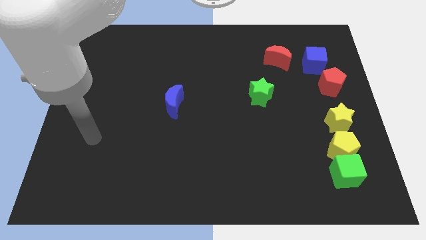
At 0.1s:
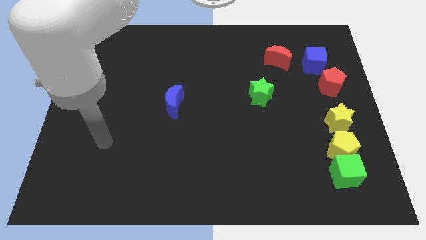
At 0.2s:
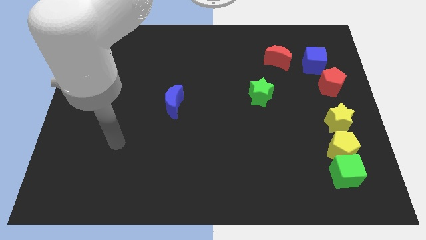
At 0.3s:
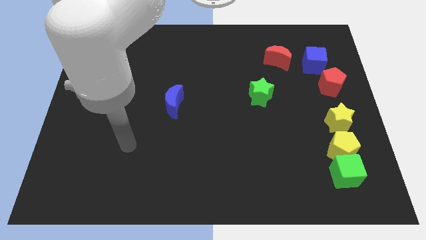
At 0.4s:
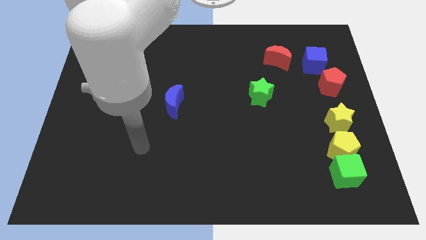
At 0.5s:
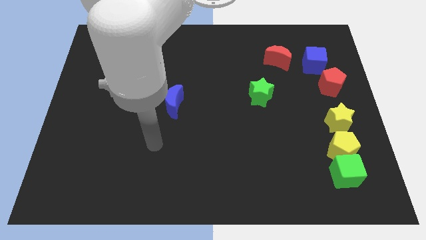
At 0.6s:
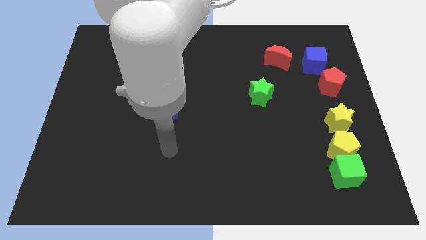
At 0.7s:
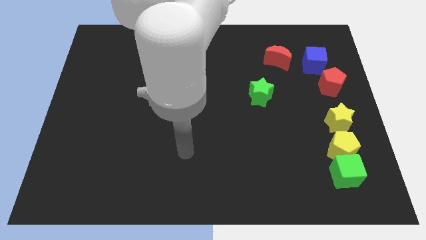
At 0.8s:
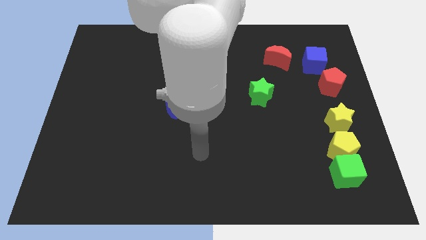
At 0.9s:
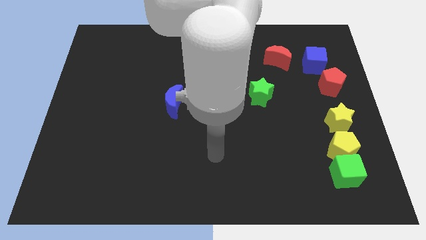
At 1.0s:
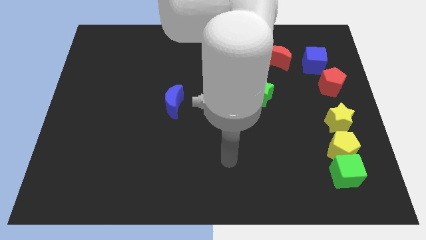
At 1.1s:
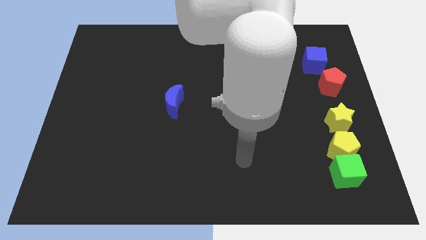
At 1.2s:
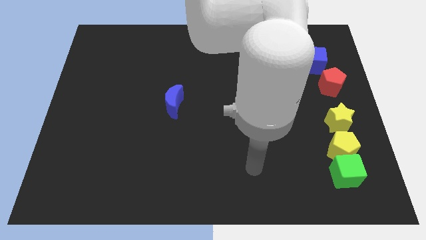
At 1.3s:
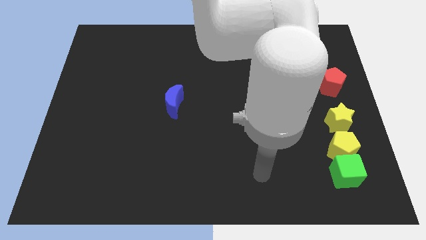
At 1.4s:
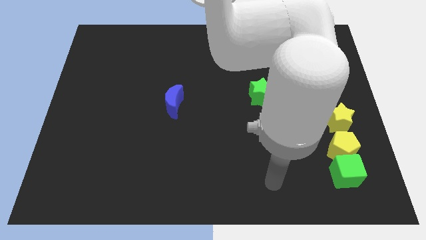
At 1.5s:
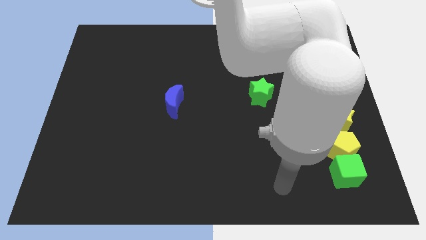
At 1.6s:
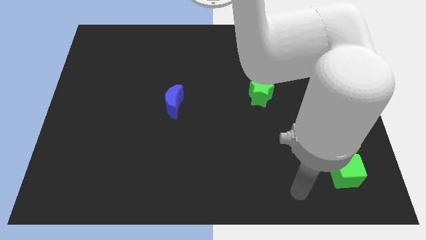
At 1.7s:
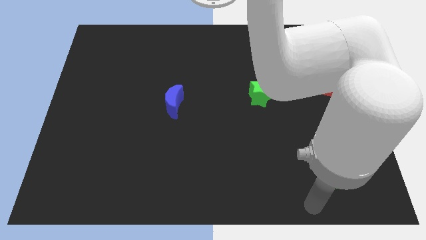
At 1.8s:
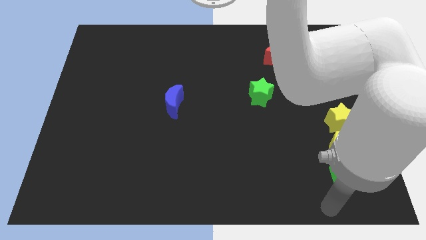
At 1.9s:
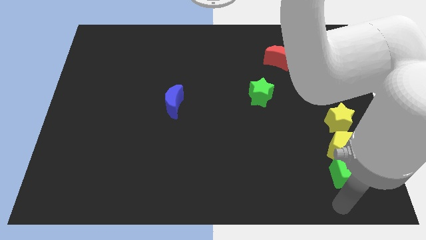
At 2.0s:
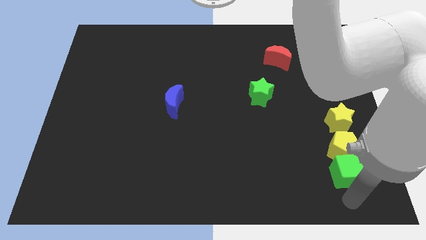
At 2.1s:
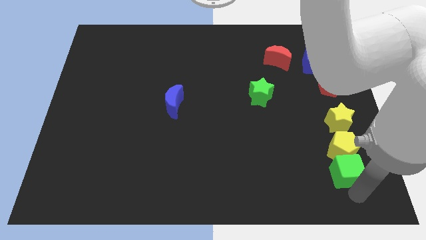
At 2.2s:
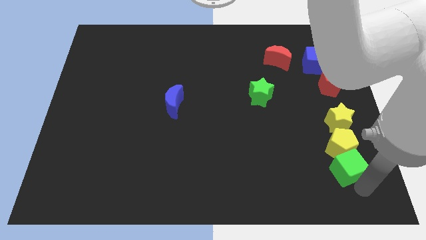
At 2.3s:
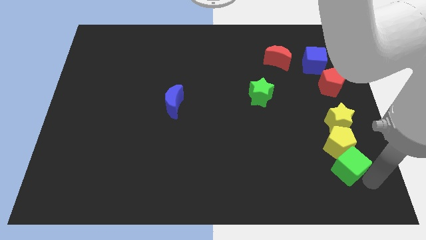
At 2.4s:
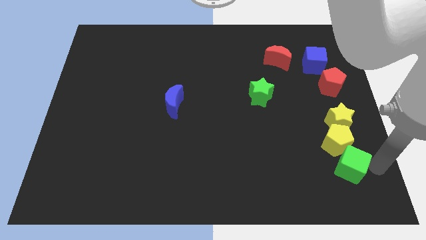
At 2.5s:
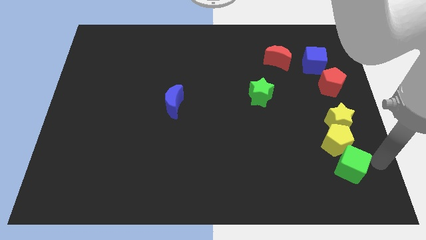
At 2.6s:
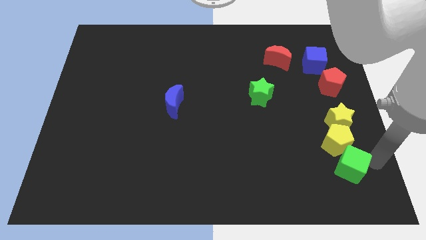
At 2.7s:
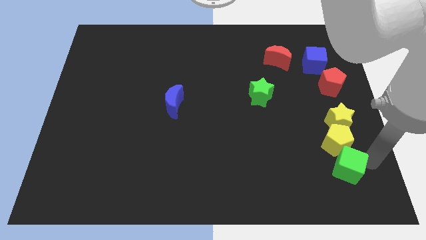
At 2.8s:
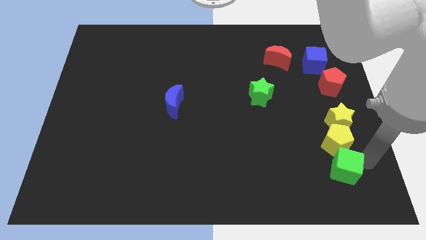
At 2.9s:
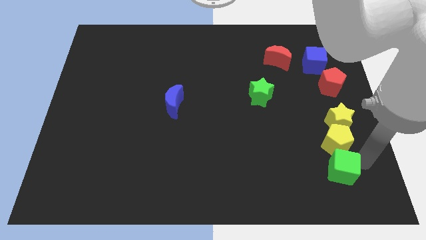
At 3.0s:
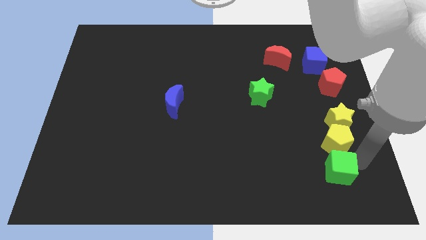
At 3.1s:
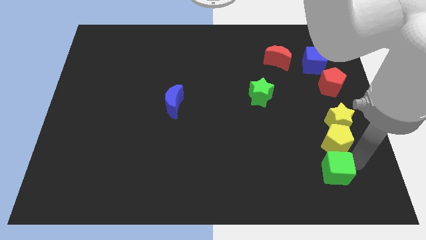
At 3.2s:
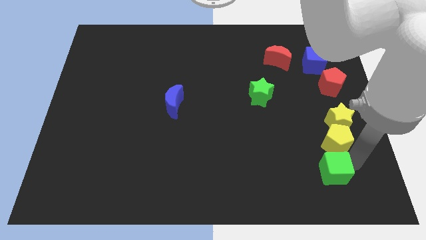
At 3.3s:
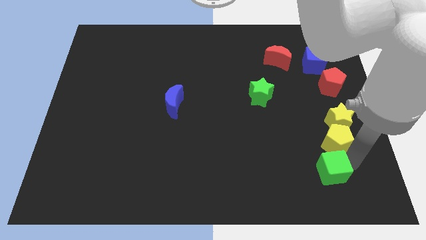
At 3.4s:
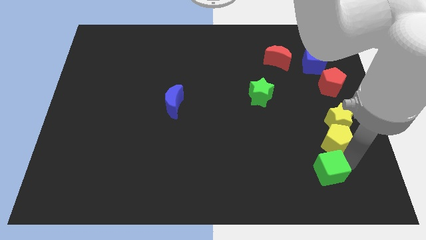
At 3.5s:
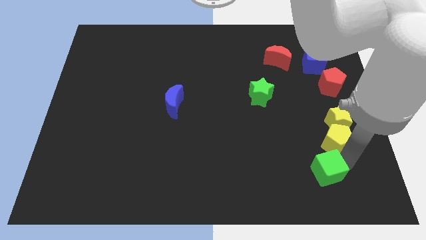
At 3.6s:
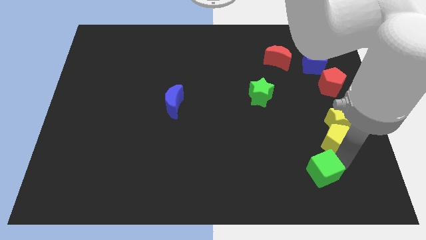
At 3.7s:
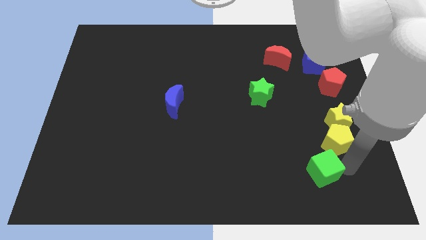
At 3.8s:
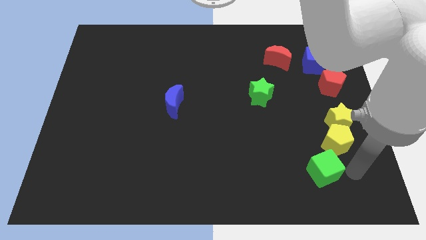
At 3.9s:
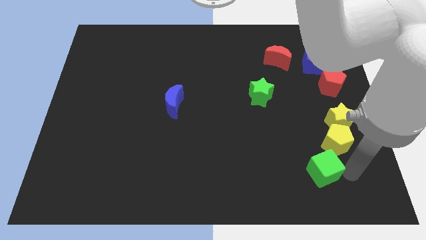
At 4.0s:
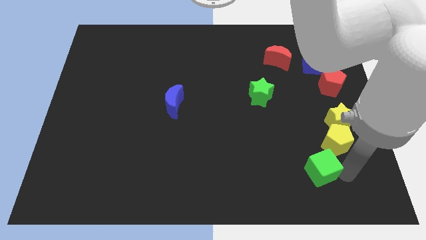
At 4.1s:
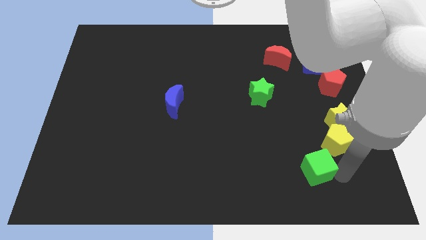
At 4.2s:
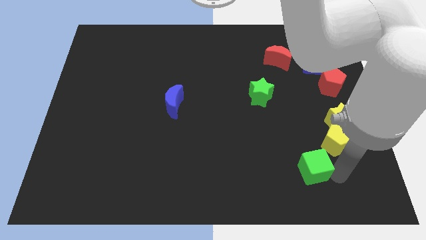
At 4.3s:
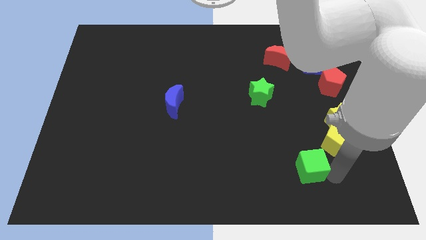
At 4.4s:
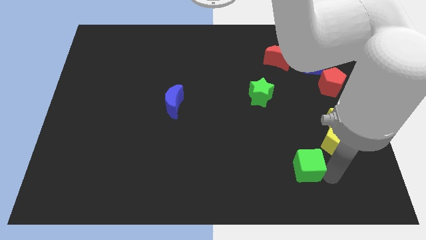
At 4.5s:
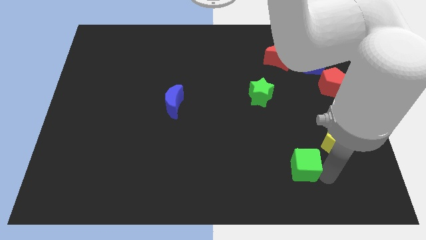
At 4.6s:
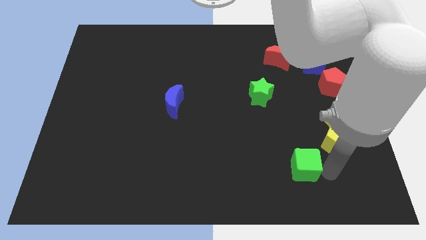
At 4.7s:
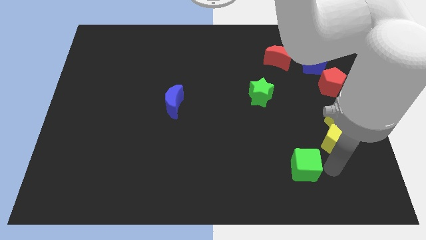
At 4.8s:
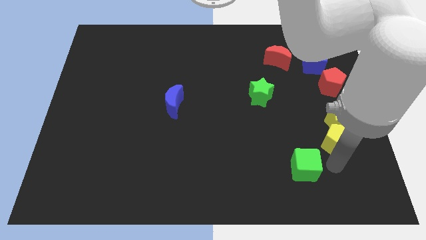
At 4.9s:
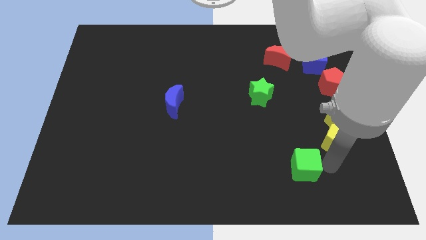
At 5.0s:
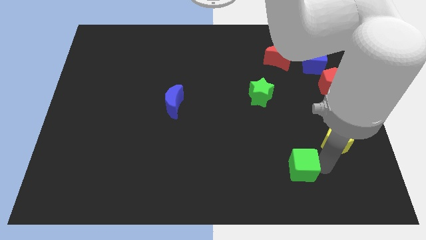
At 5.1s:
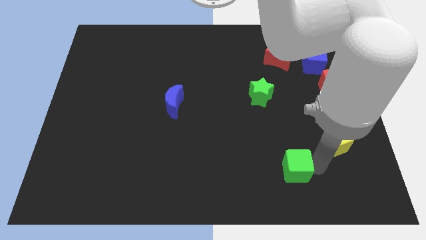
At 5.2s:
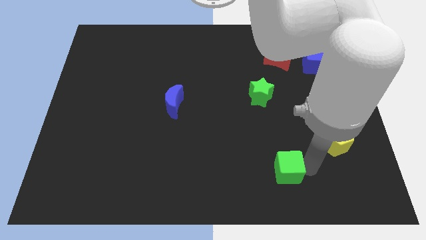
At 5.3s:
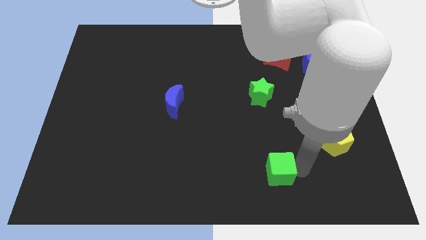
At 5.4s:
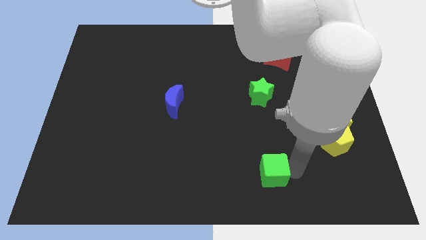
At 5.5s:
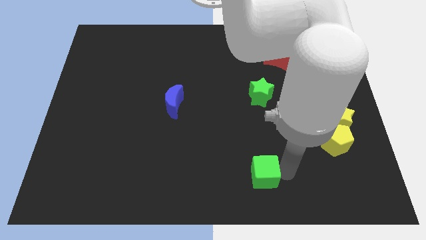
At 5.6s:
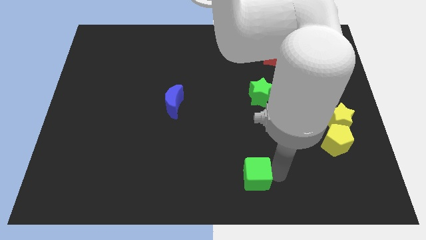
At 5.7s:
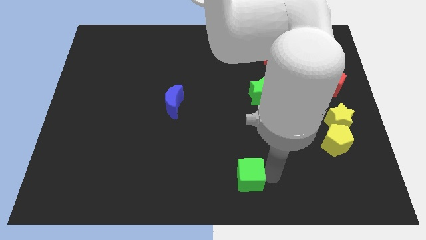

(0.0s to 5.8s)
slide the green cube left

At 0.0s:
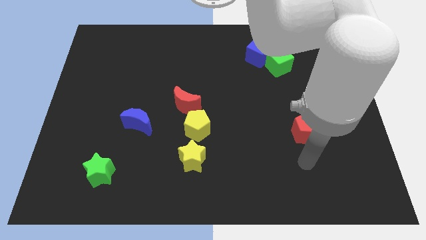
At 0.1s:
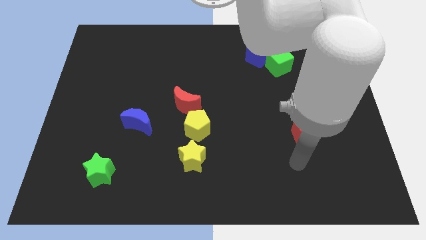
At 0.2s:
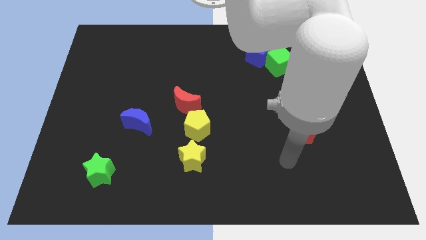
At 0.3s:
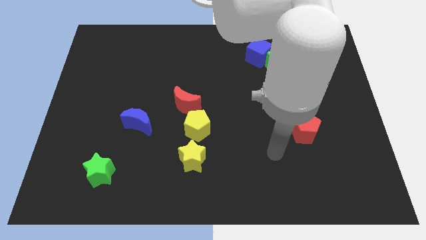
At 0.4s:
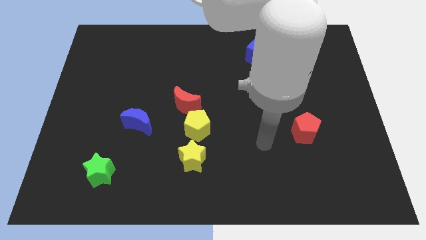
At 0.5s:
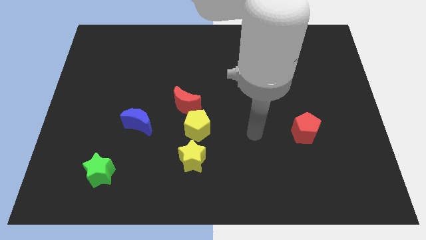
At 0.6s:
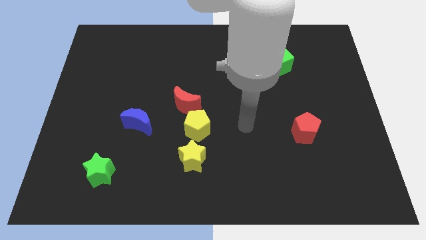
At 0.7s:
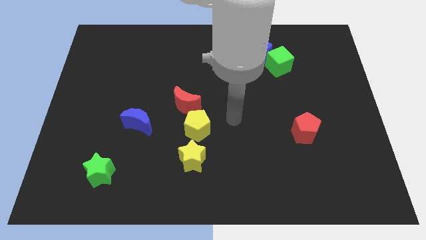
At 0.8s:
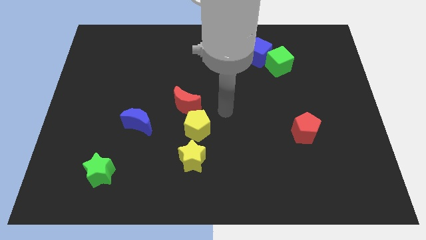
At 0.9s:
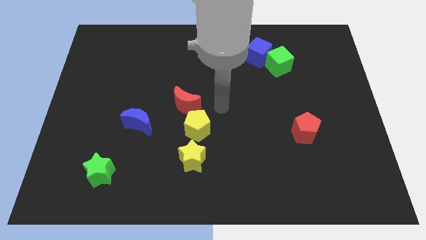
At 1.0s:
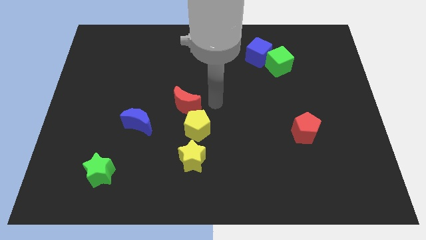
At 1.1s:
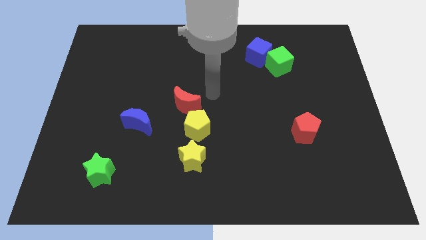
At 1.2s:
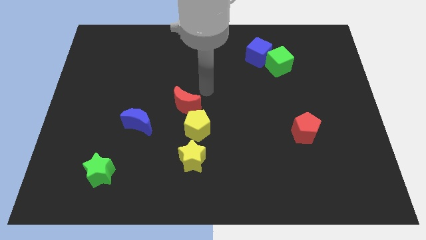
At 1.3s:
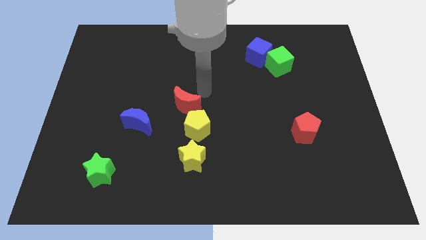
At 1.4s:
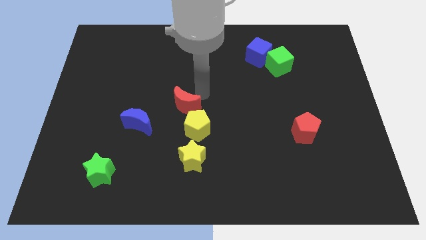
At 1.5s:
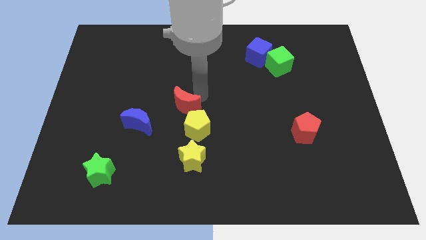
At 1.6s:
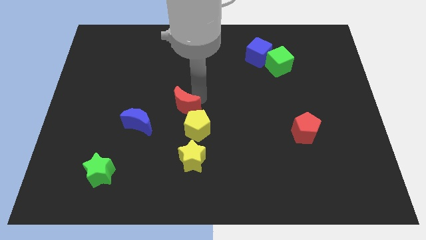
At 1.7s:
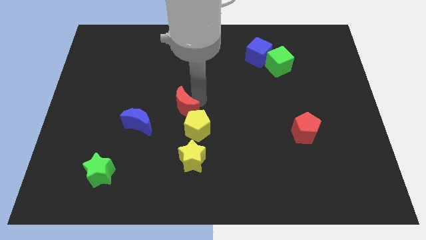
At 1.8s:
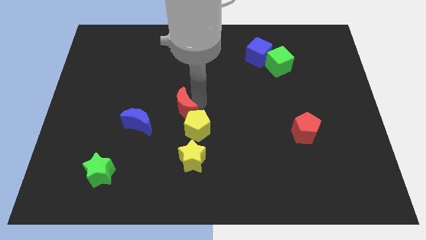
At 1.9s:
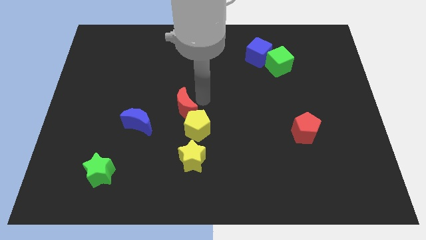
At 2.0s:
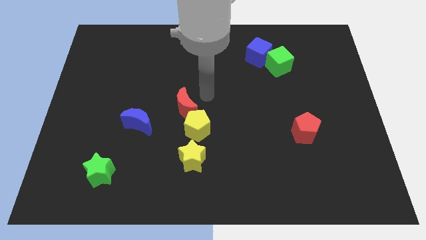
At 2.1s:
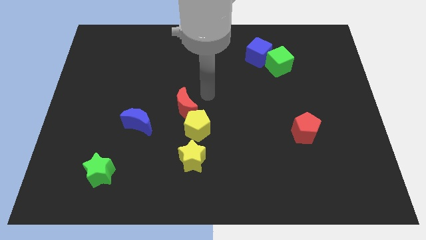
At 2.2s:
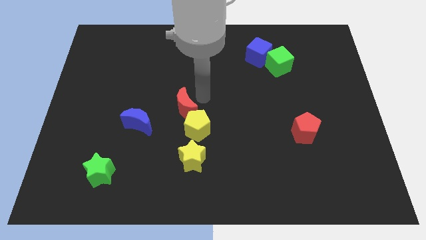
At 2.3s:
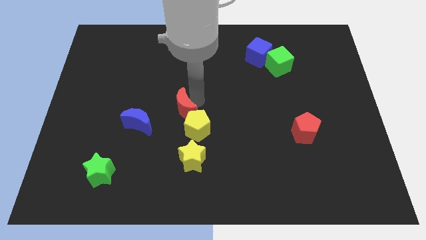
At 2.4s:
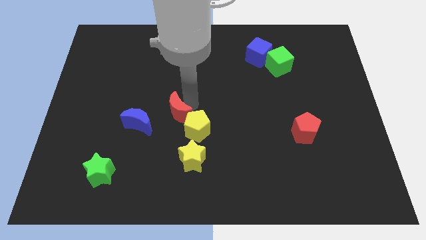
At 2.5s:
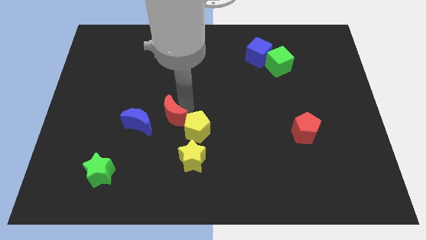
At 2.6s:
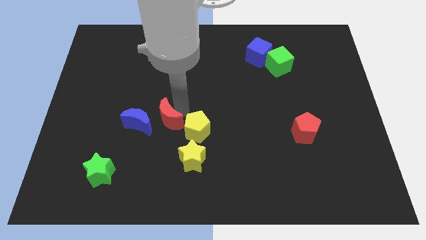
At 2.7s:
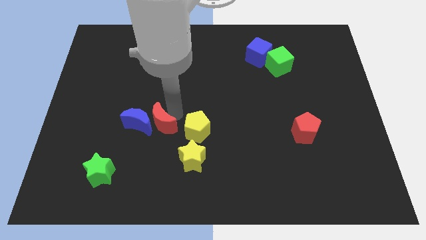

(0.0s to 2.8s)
slightly move the red moon downwards and then left
